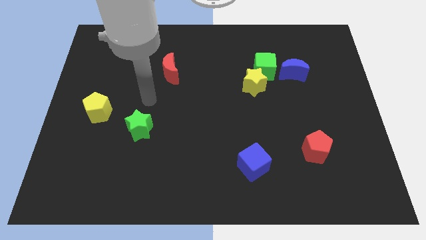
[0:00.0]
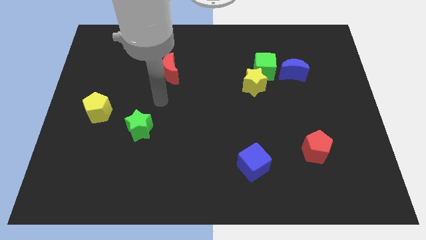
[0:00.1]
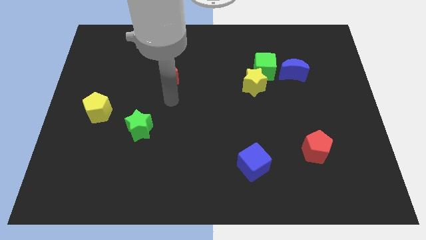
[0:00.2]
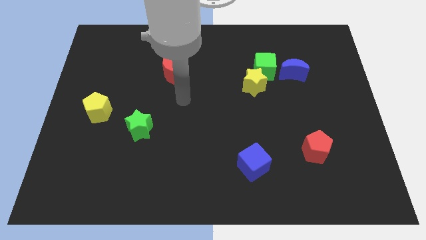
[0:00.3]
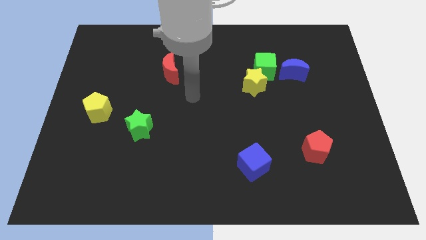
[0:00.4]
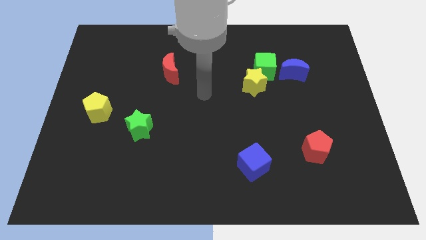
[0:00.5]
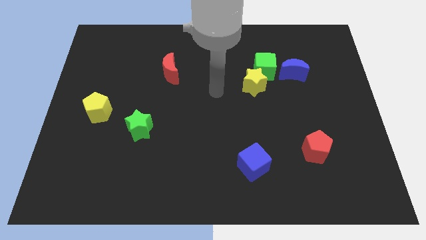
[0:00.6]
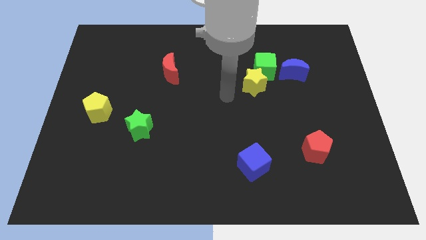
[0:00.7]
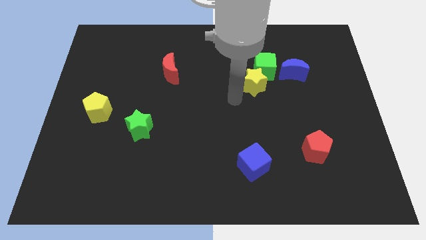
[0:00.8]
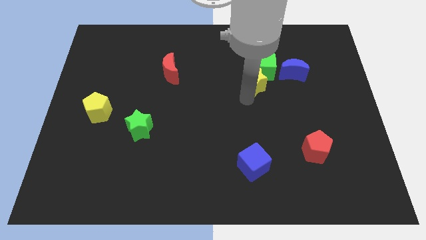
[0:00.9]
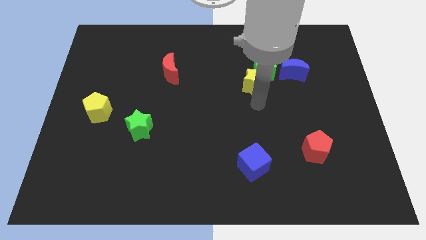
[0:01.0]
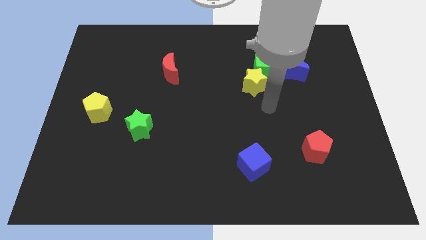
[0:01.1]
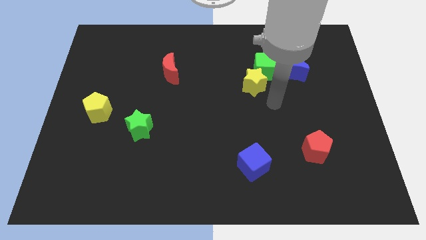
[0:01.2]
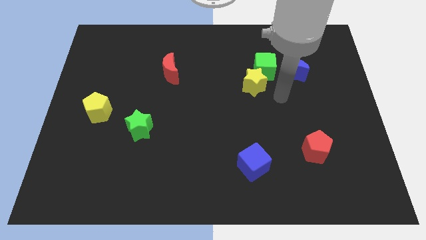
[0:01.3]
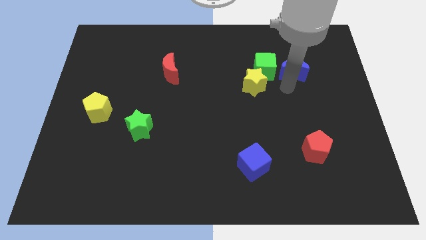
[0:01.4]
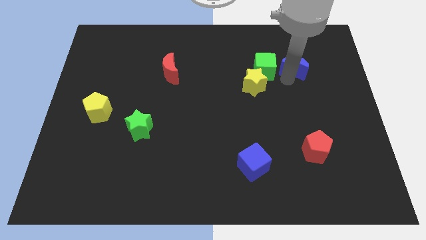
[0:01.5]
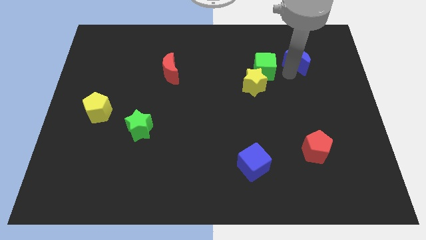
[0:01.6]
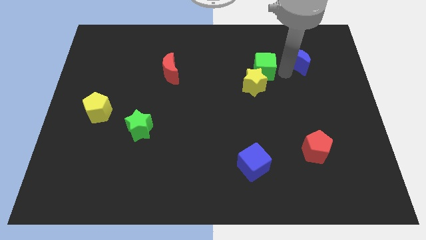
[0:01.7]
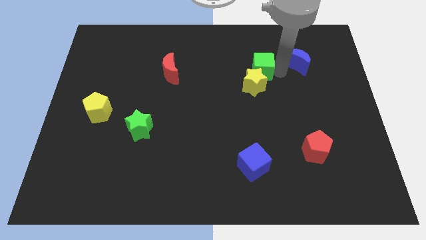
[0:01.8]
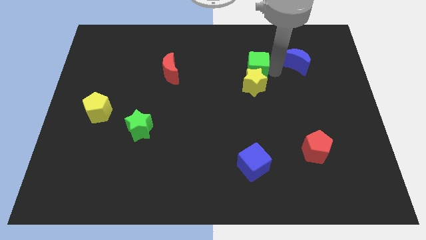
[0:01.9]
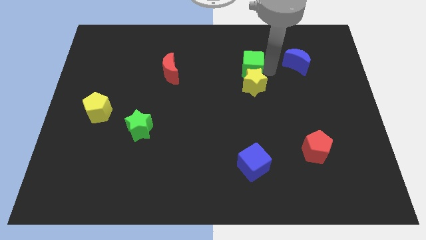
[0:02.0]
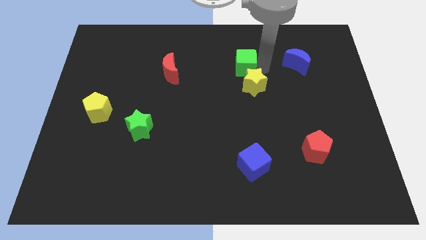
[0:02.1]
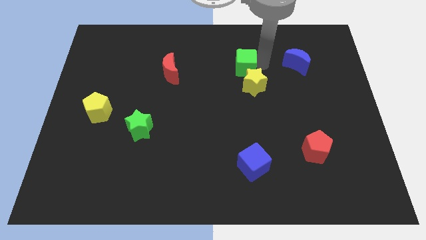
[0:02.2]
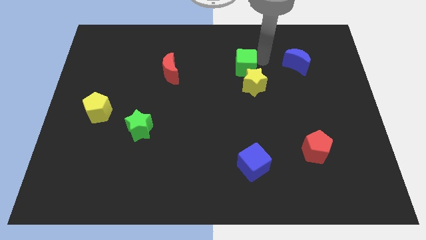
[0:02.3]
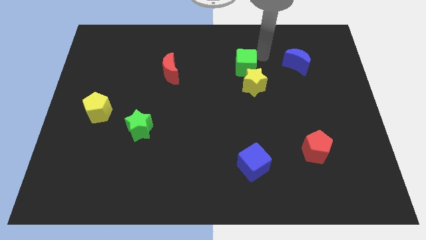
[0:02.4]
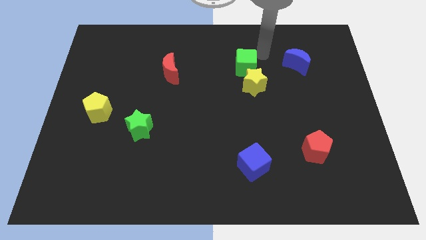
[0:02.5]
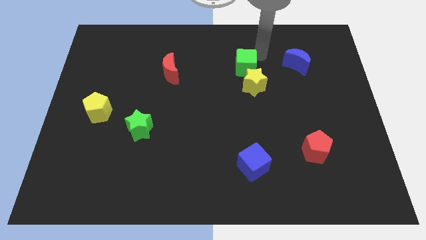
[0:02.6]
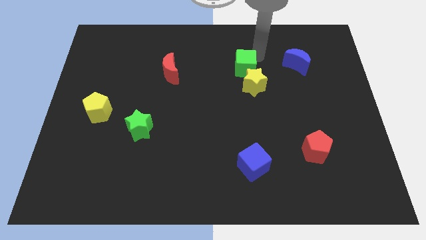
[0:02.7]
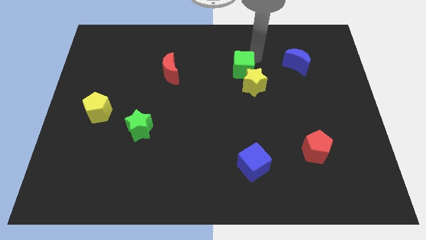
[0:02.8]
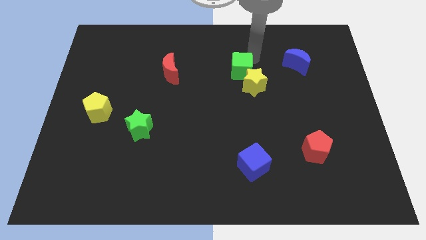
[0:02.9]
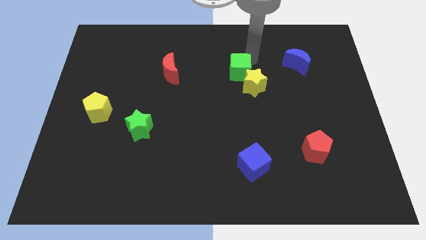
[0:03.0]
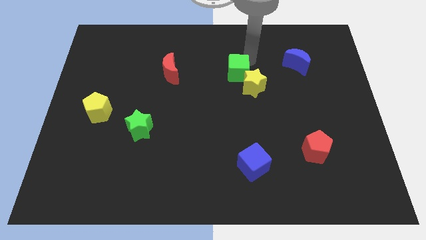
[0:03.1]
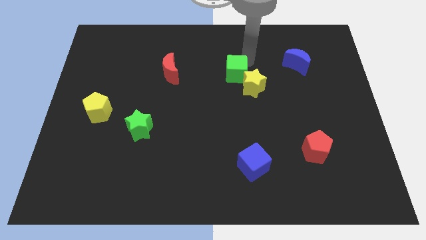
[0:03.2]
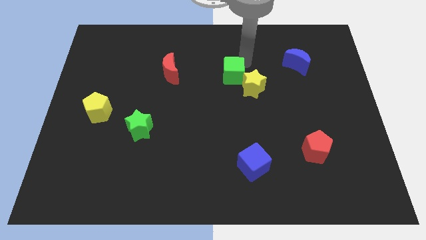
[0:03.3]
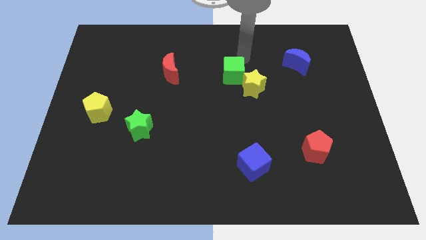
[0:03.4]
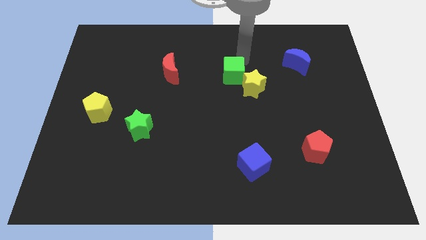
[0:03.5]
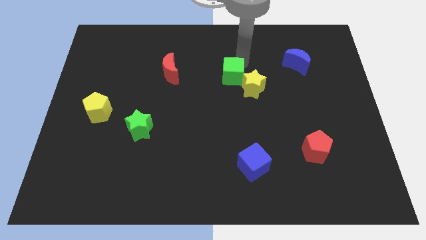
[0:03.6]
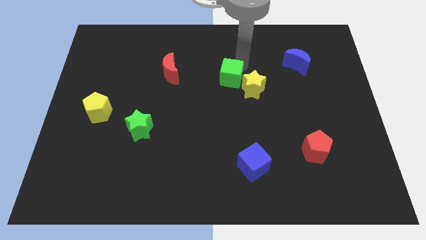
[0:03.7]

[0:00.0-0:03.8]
slightly slide the green cube diagonally downwards and left

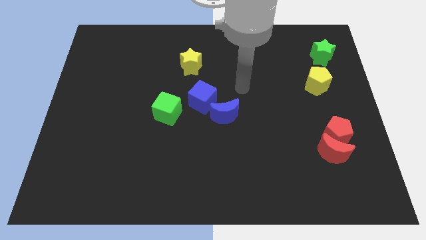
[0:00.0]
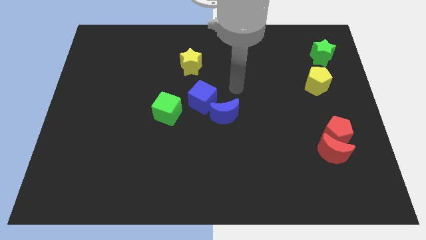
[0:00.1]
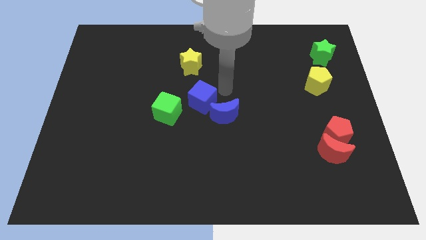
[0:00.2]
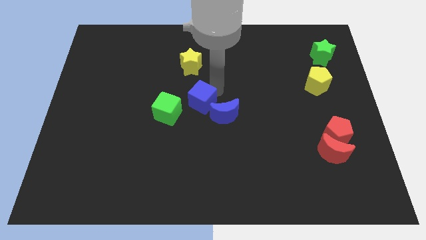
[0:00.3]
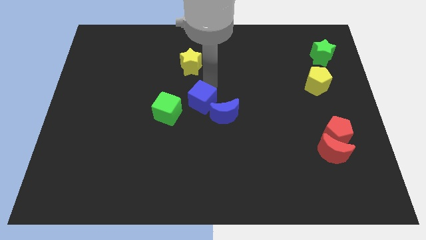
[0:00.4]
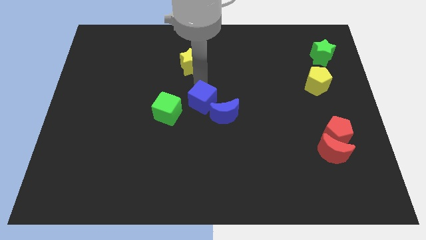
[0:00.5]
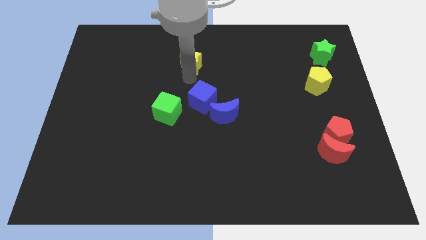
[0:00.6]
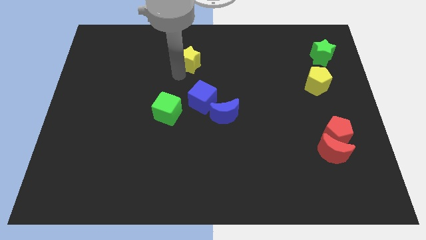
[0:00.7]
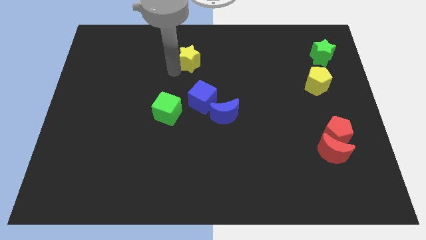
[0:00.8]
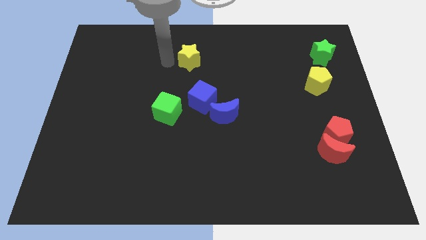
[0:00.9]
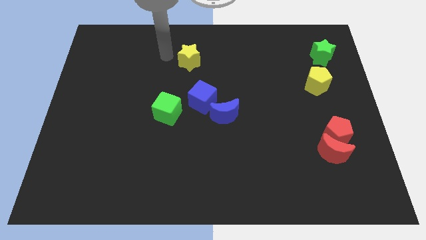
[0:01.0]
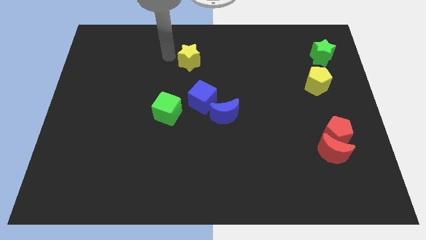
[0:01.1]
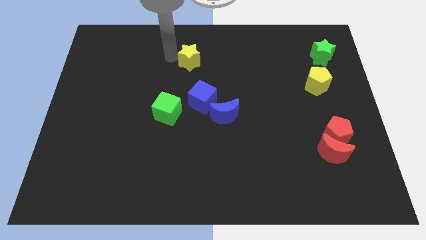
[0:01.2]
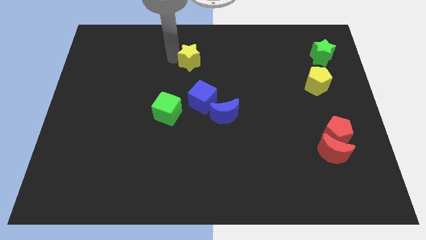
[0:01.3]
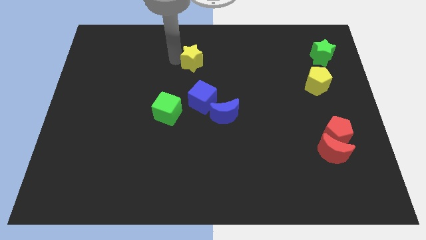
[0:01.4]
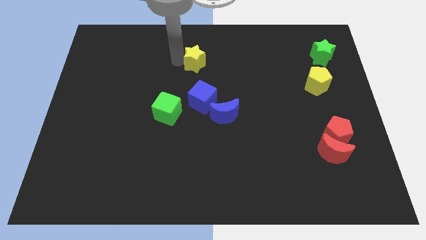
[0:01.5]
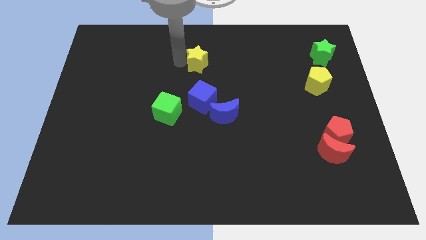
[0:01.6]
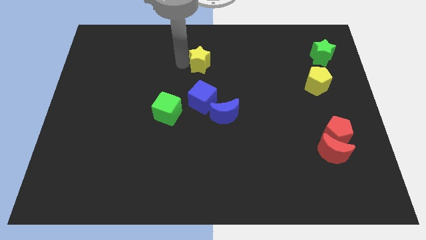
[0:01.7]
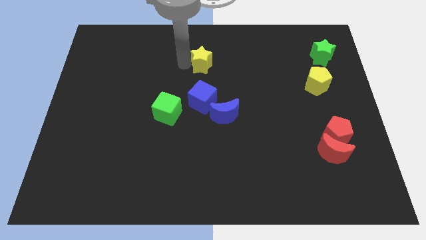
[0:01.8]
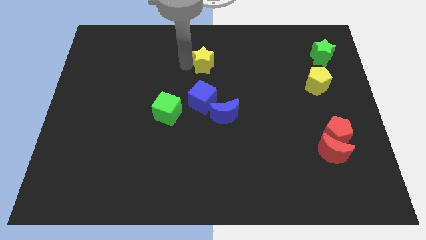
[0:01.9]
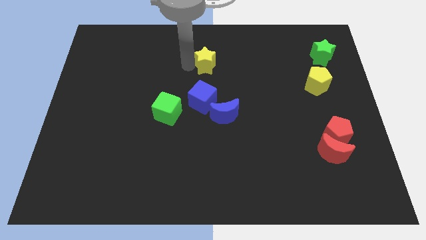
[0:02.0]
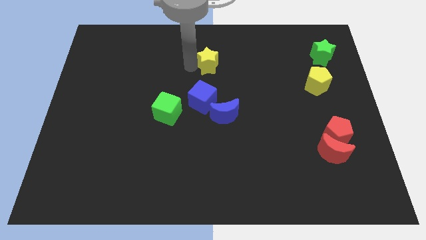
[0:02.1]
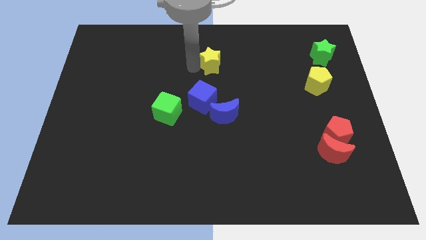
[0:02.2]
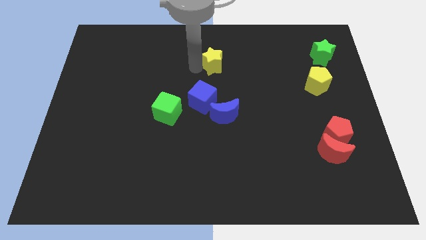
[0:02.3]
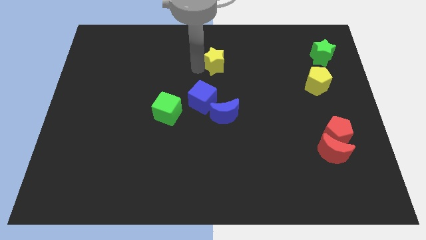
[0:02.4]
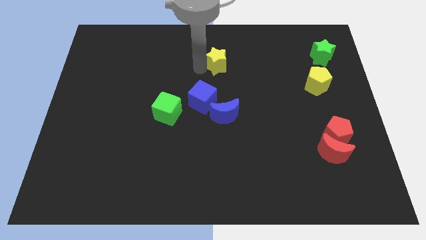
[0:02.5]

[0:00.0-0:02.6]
move the yellow star a bit to the right

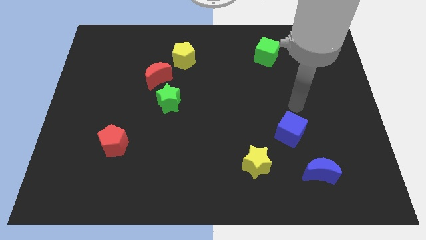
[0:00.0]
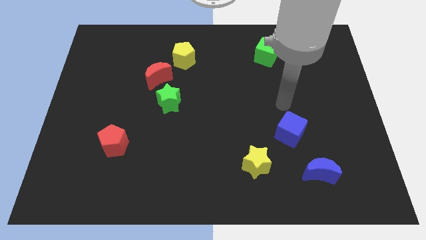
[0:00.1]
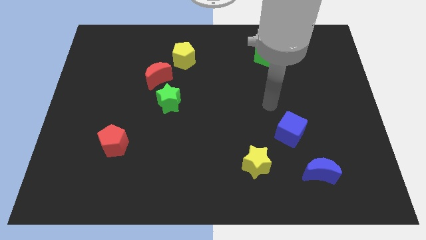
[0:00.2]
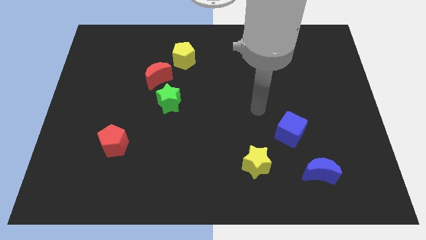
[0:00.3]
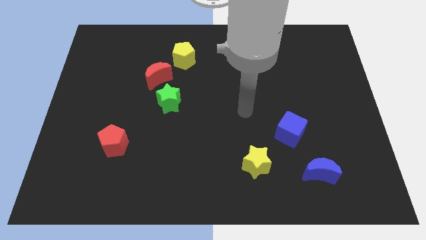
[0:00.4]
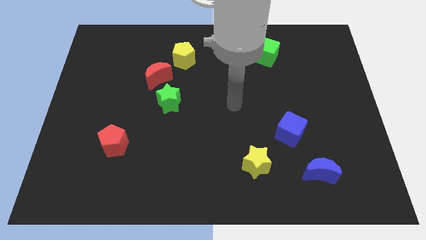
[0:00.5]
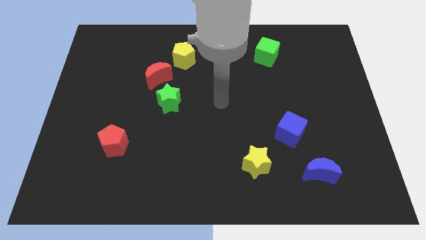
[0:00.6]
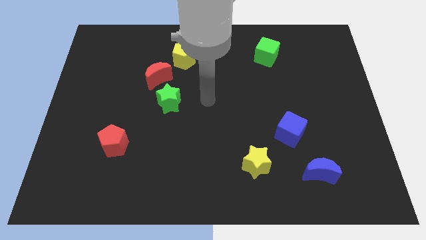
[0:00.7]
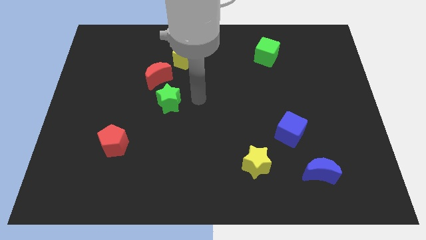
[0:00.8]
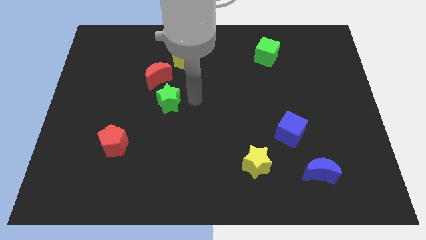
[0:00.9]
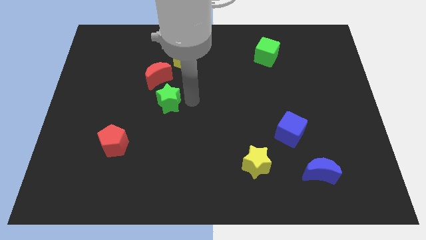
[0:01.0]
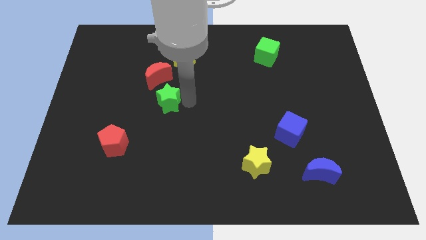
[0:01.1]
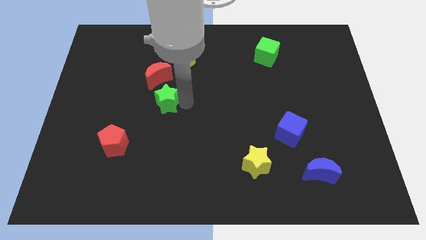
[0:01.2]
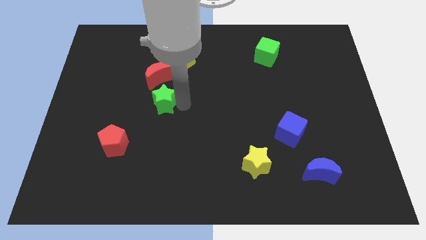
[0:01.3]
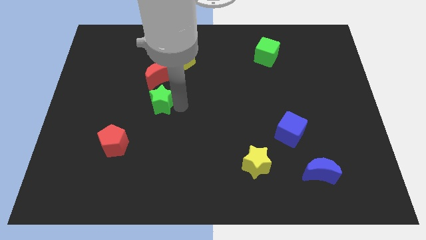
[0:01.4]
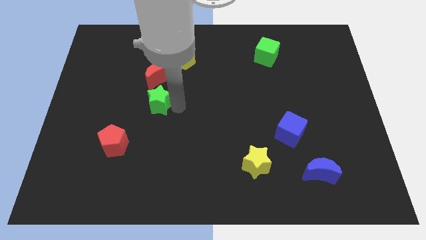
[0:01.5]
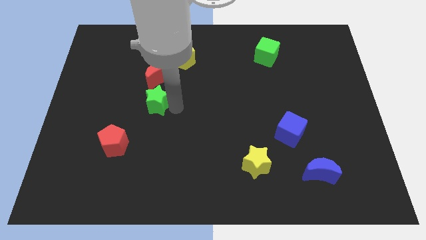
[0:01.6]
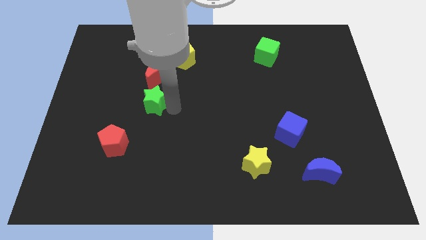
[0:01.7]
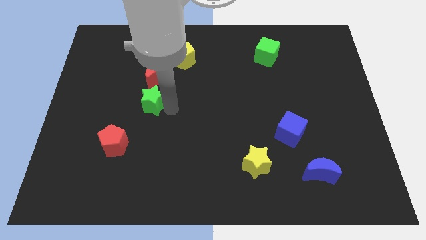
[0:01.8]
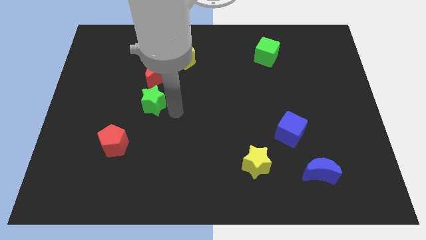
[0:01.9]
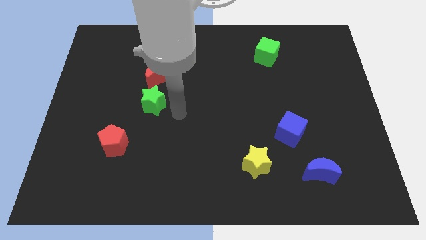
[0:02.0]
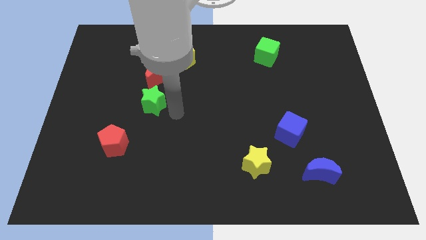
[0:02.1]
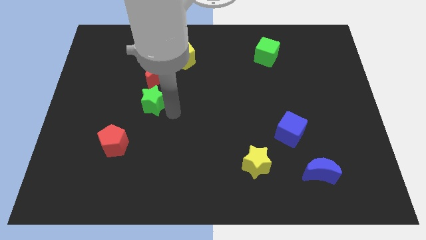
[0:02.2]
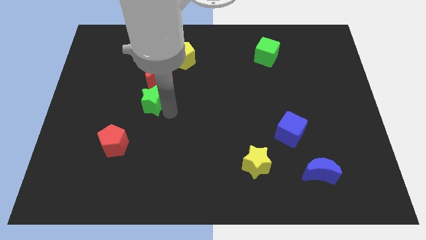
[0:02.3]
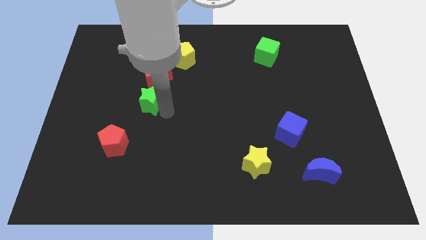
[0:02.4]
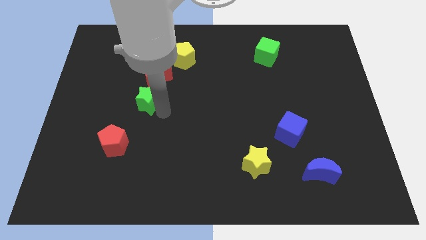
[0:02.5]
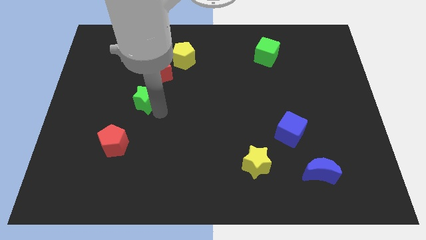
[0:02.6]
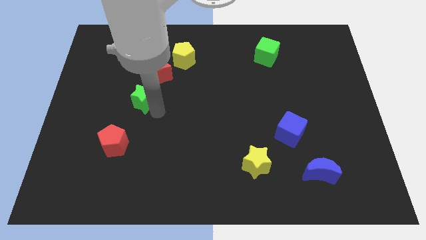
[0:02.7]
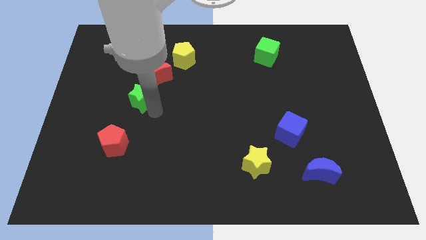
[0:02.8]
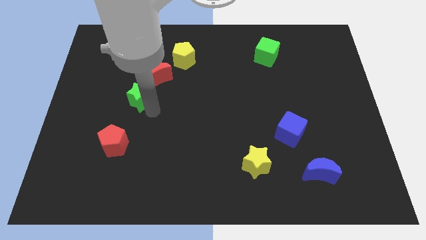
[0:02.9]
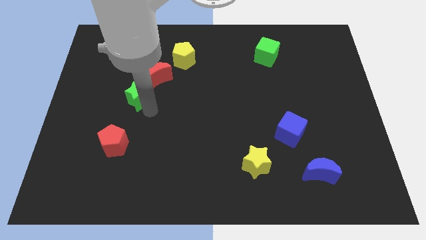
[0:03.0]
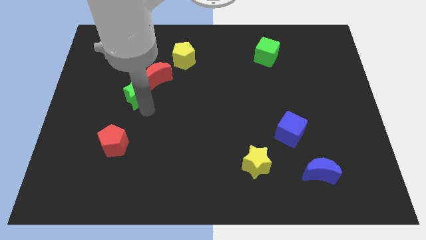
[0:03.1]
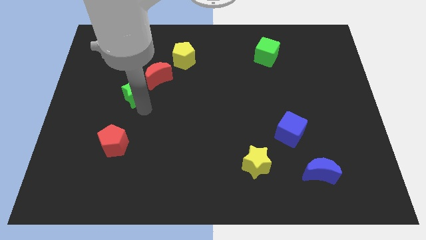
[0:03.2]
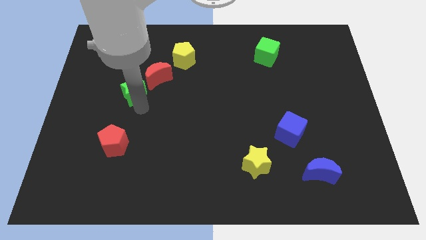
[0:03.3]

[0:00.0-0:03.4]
push the green star somewhat upwards and left
